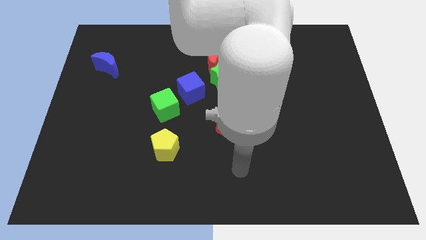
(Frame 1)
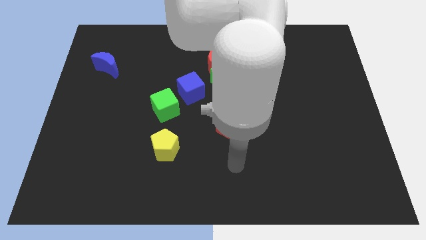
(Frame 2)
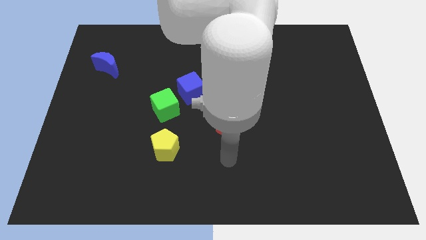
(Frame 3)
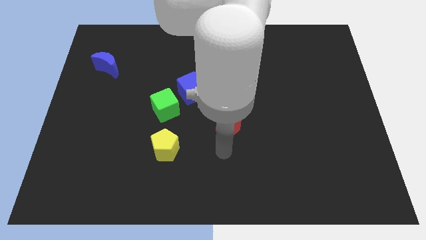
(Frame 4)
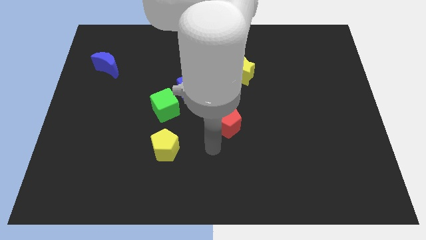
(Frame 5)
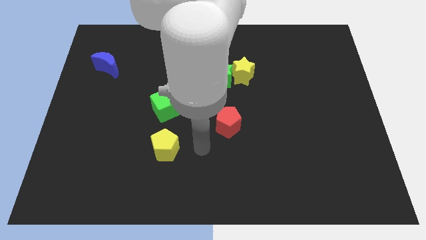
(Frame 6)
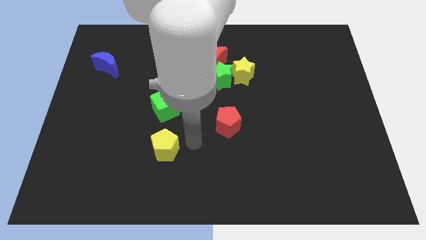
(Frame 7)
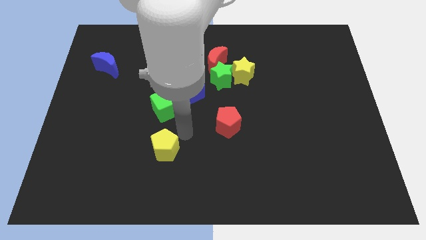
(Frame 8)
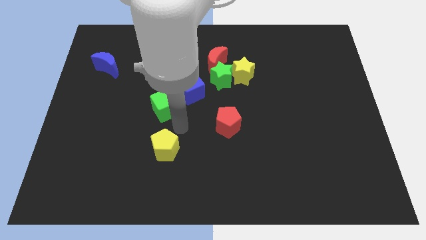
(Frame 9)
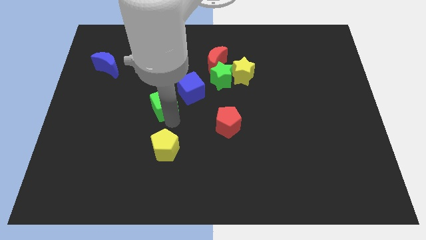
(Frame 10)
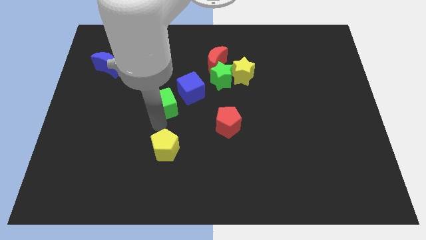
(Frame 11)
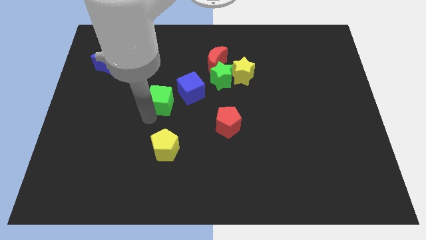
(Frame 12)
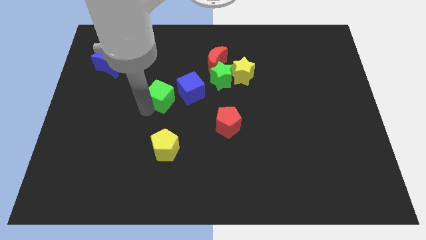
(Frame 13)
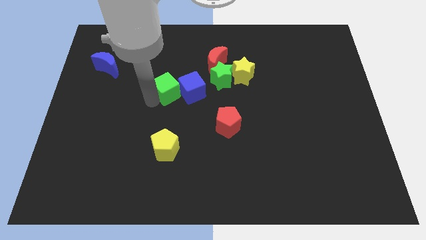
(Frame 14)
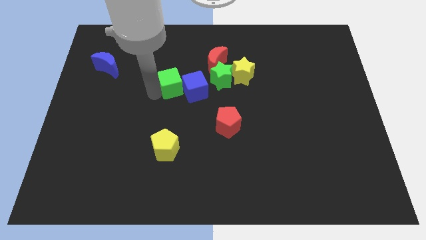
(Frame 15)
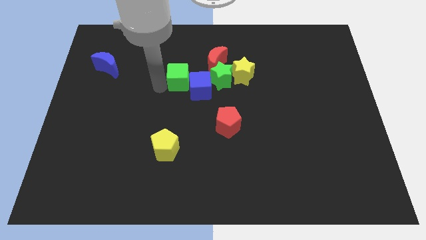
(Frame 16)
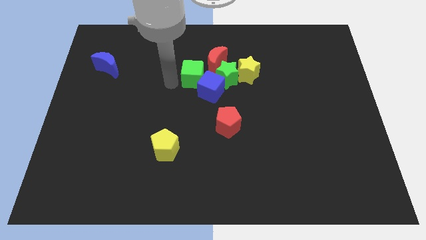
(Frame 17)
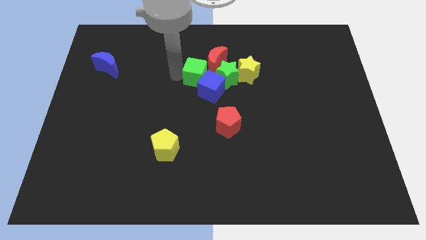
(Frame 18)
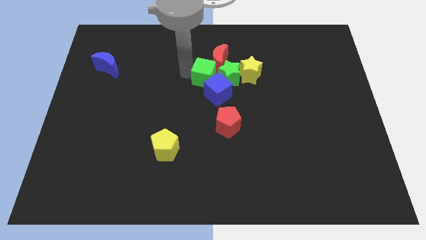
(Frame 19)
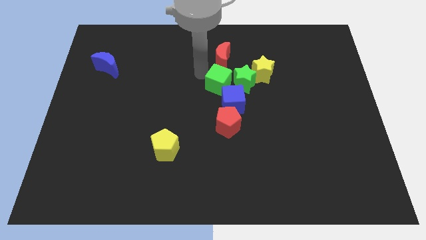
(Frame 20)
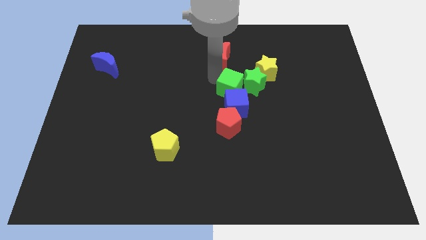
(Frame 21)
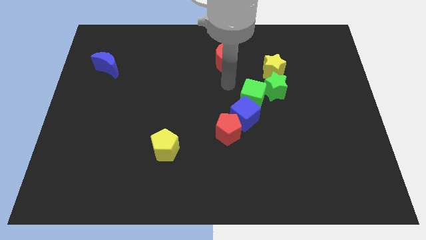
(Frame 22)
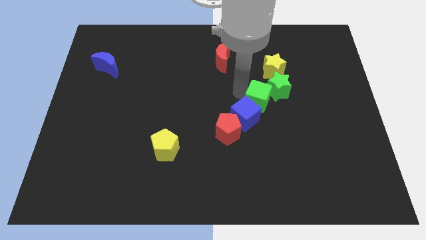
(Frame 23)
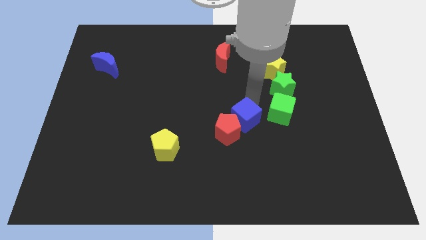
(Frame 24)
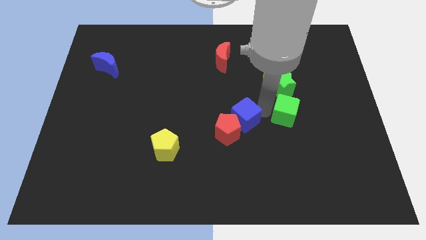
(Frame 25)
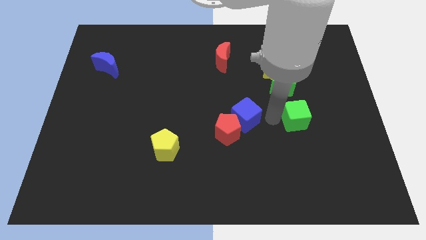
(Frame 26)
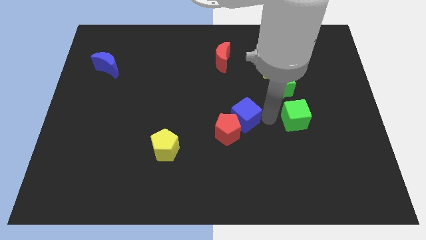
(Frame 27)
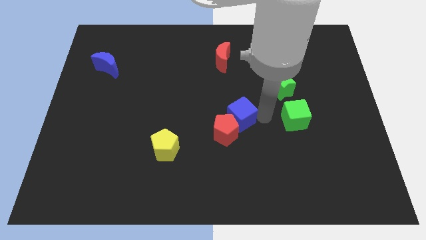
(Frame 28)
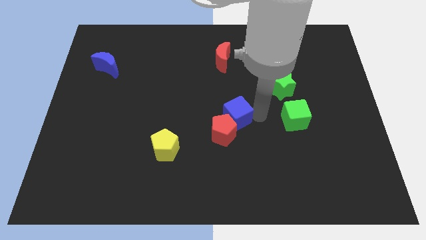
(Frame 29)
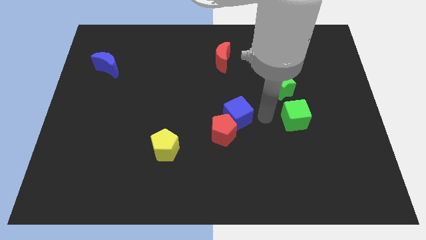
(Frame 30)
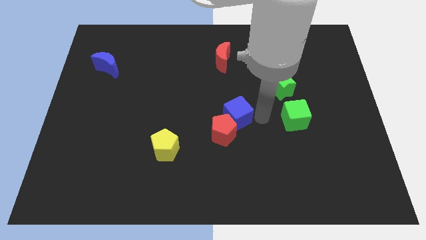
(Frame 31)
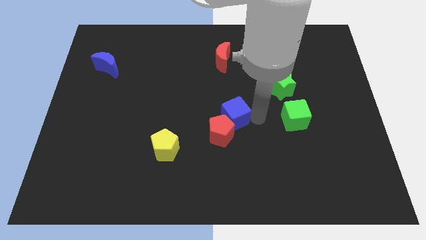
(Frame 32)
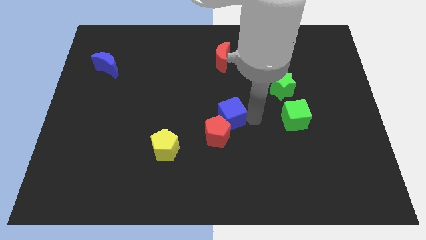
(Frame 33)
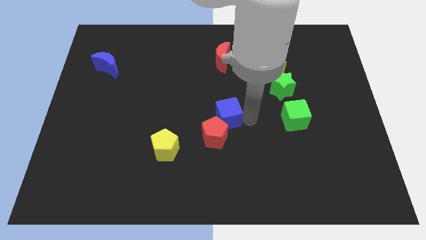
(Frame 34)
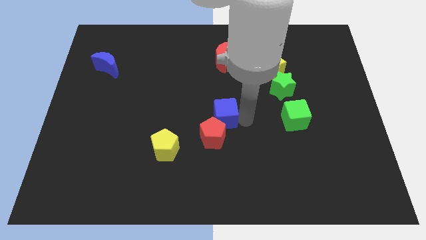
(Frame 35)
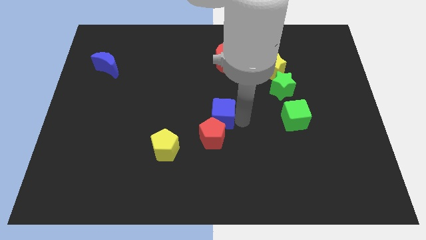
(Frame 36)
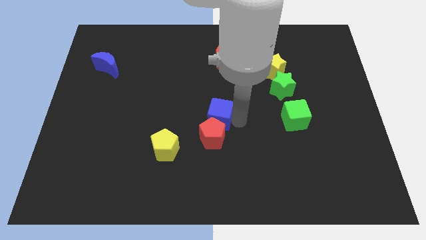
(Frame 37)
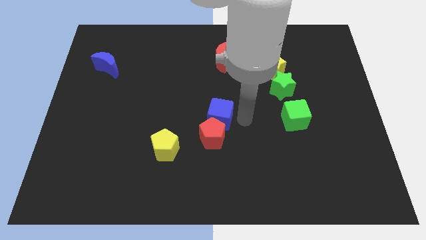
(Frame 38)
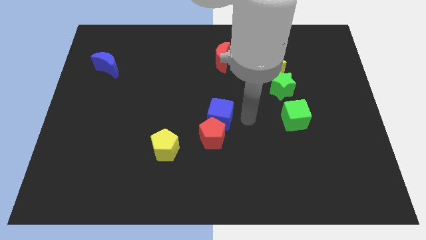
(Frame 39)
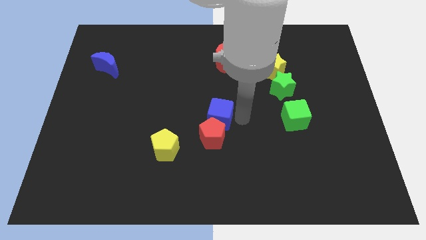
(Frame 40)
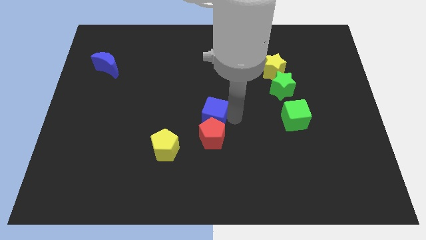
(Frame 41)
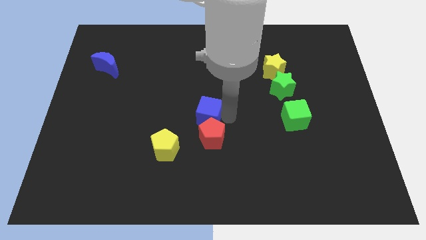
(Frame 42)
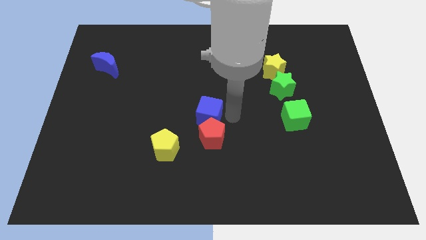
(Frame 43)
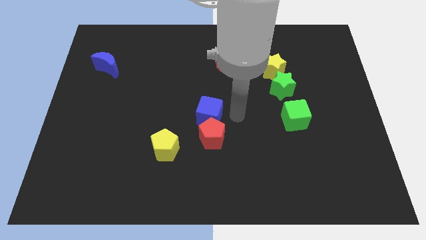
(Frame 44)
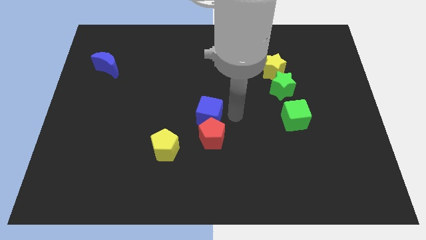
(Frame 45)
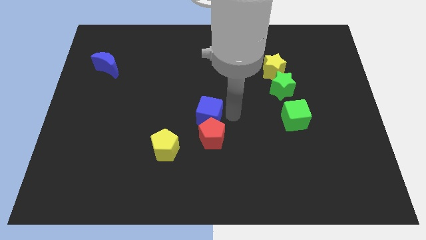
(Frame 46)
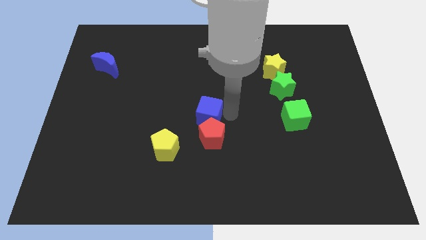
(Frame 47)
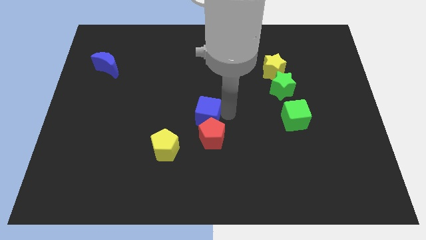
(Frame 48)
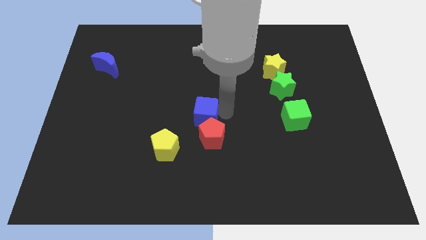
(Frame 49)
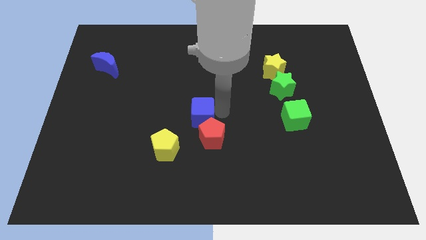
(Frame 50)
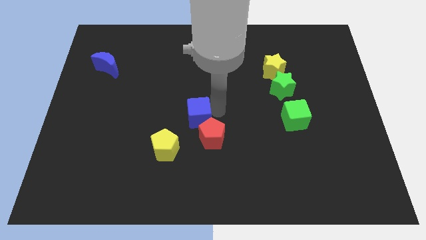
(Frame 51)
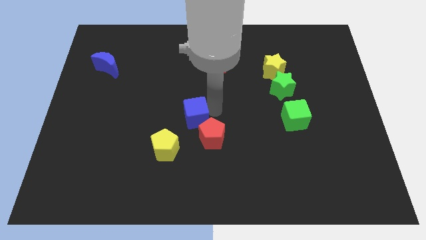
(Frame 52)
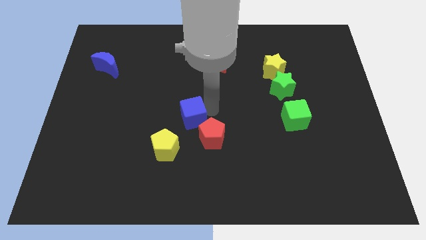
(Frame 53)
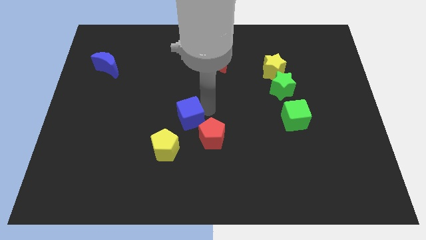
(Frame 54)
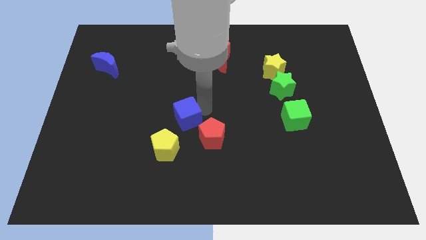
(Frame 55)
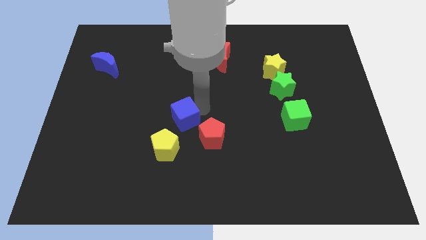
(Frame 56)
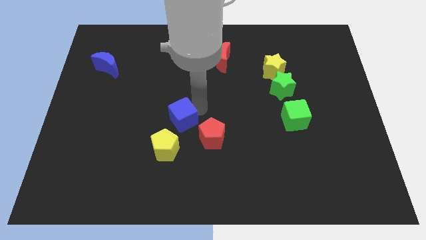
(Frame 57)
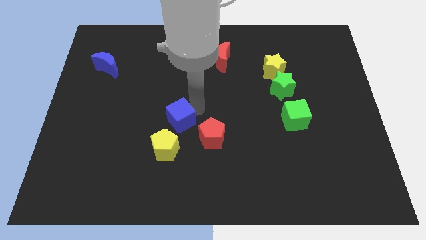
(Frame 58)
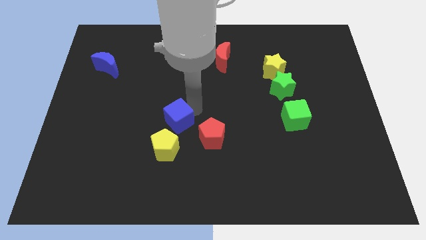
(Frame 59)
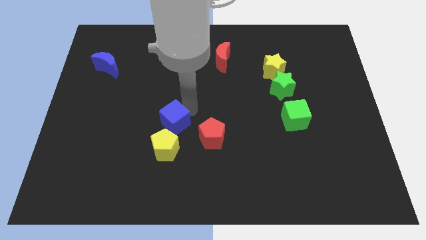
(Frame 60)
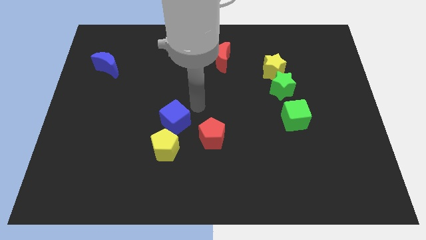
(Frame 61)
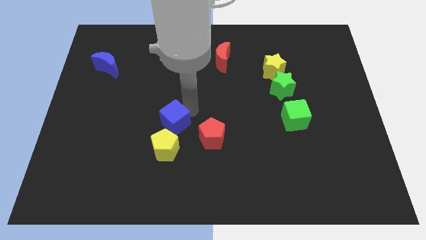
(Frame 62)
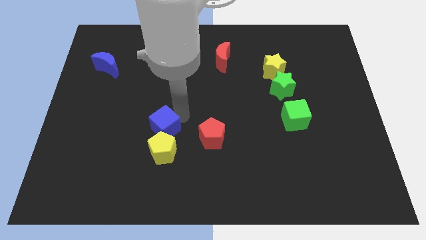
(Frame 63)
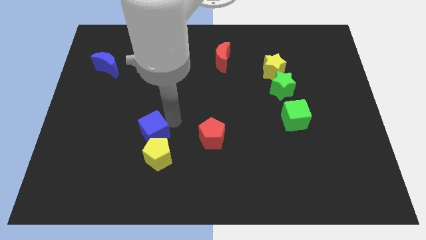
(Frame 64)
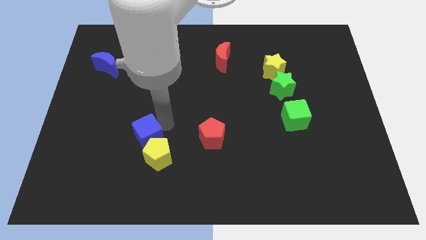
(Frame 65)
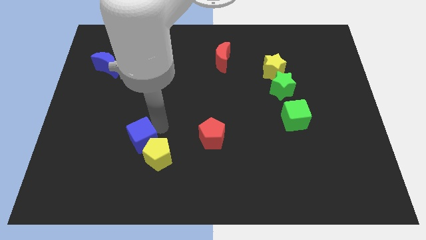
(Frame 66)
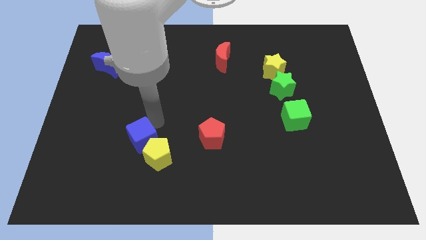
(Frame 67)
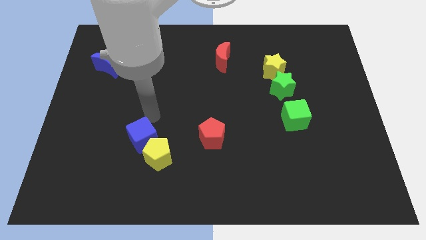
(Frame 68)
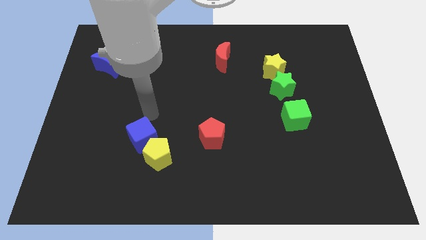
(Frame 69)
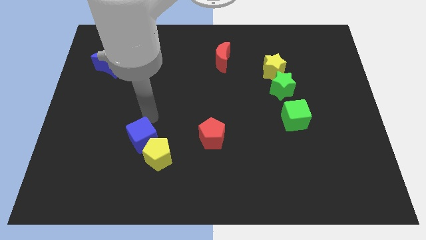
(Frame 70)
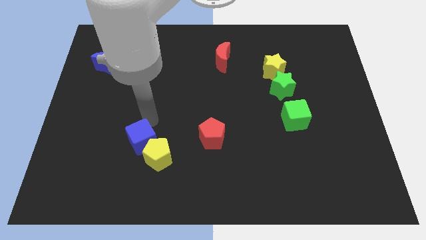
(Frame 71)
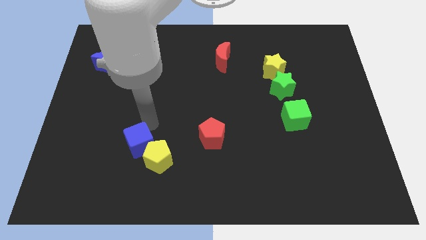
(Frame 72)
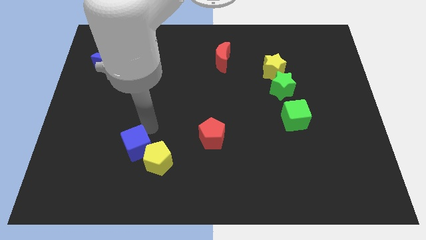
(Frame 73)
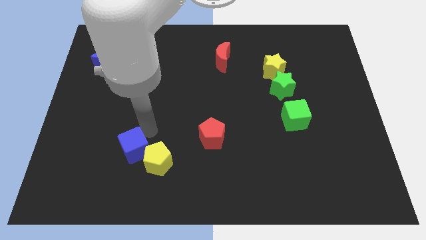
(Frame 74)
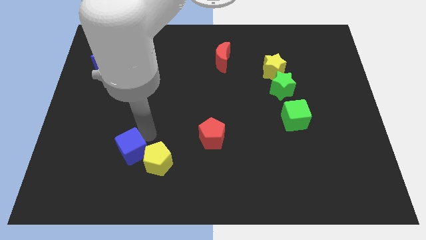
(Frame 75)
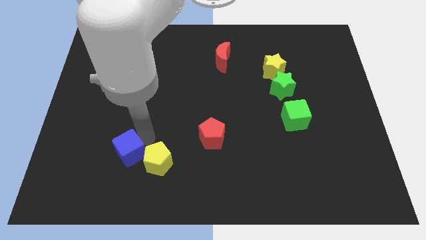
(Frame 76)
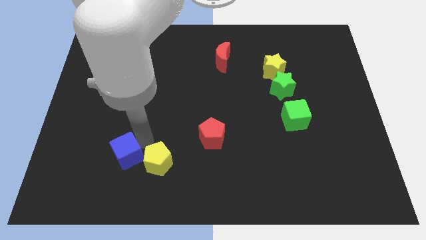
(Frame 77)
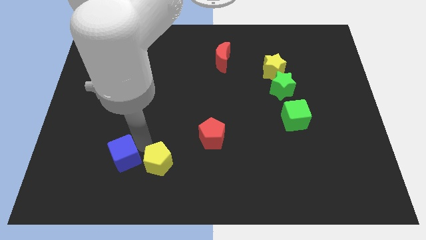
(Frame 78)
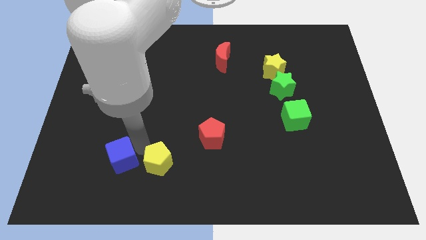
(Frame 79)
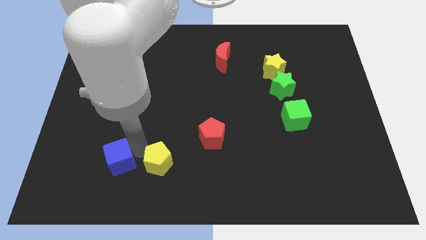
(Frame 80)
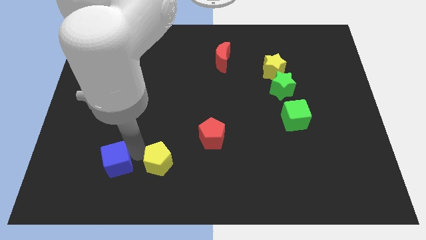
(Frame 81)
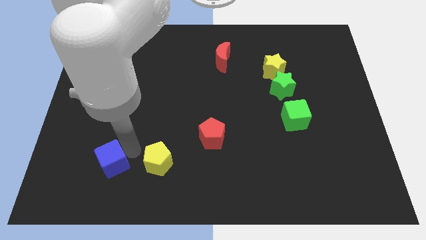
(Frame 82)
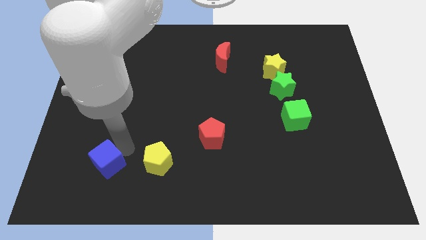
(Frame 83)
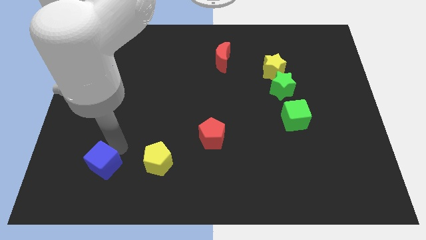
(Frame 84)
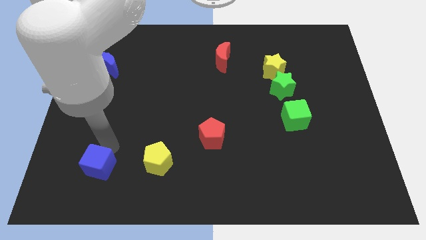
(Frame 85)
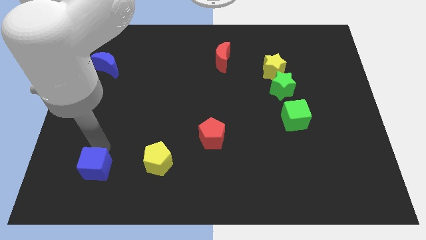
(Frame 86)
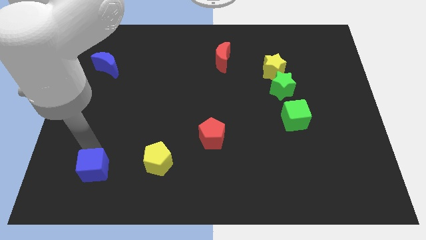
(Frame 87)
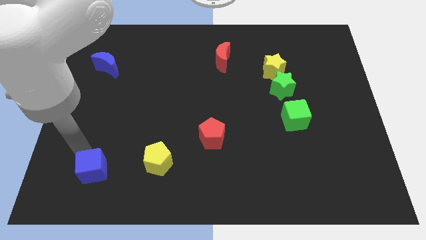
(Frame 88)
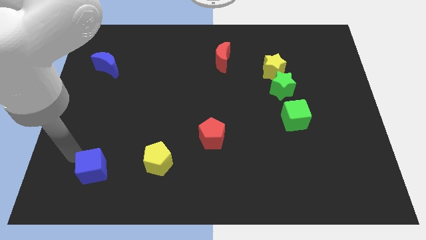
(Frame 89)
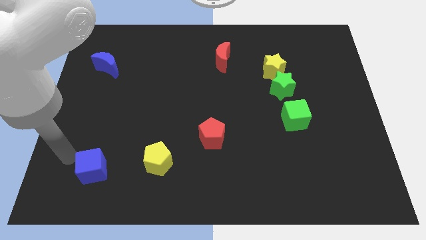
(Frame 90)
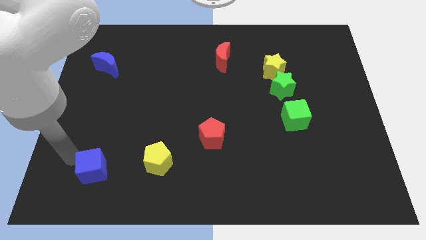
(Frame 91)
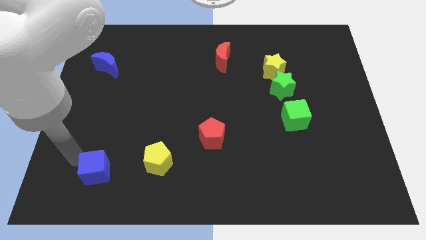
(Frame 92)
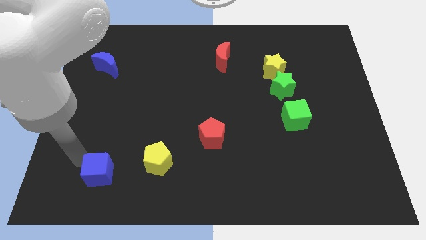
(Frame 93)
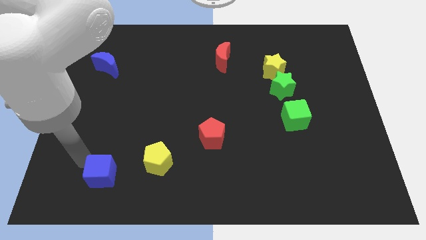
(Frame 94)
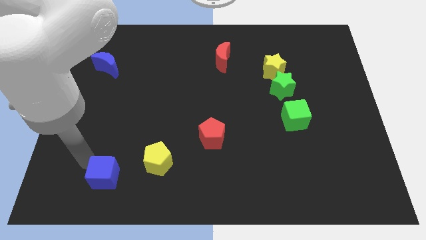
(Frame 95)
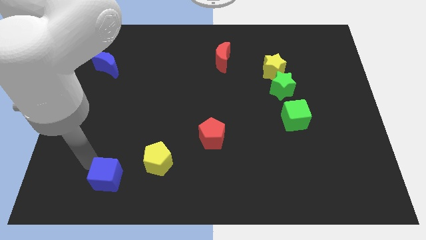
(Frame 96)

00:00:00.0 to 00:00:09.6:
slide the blue cube to the bottom left of the yellow pentagon
